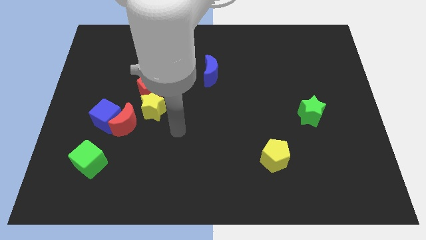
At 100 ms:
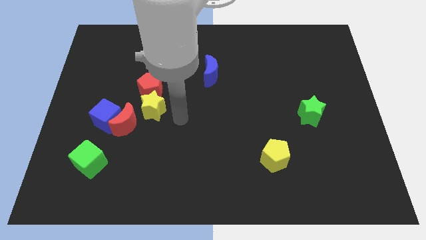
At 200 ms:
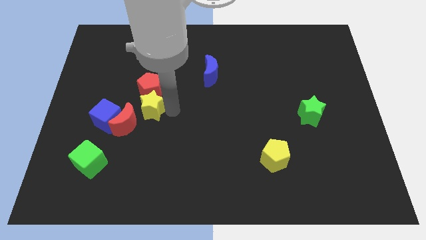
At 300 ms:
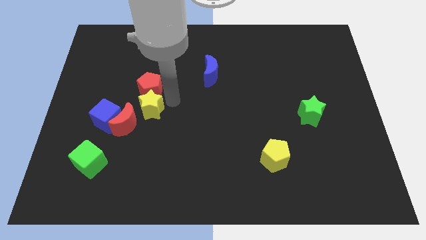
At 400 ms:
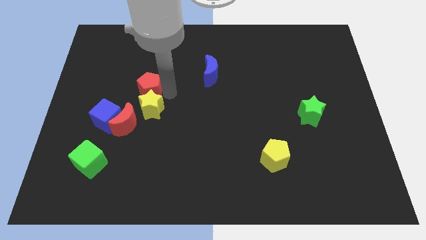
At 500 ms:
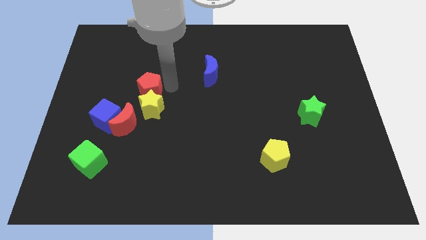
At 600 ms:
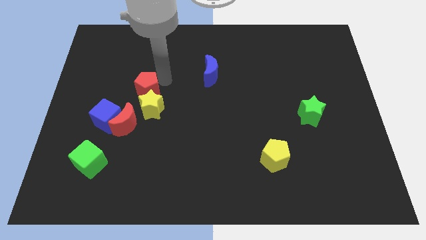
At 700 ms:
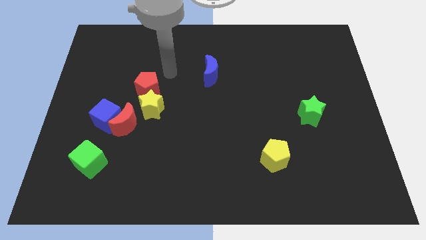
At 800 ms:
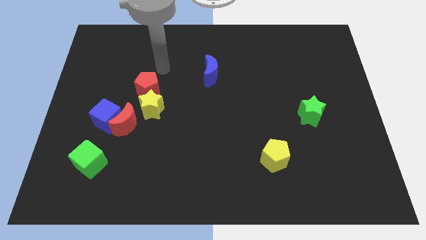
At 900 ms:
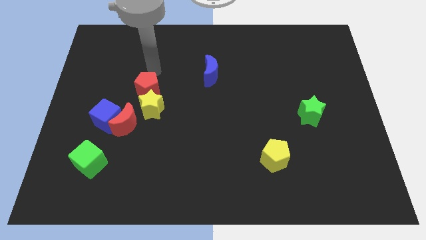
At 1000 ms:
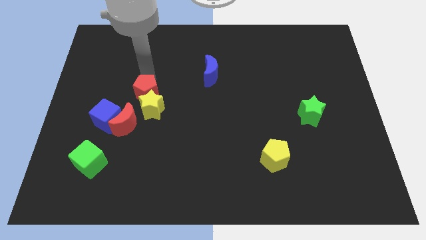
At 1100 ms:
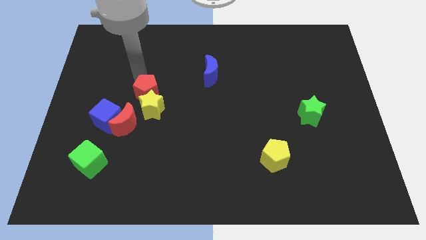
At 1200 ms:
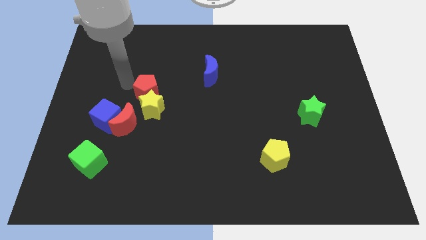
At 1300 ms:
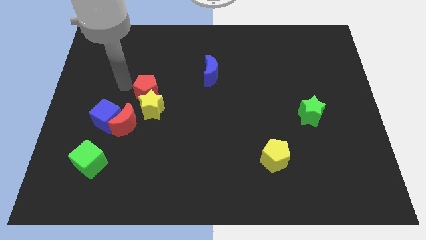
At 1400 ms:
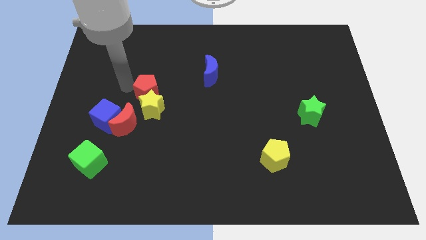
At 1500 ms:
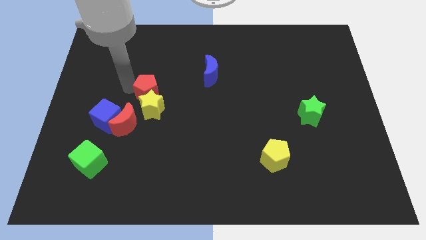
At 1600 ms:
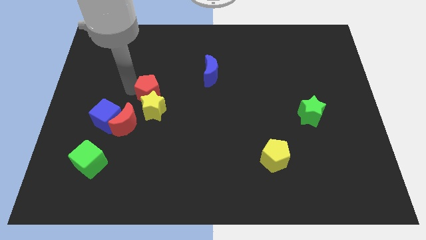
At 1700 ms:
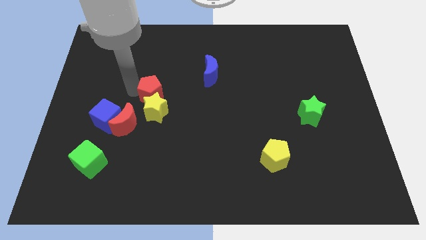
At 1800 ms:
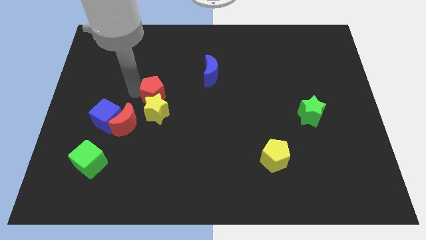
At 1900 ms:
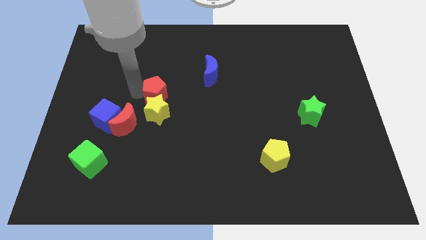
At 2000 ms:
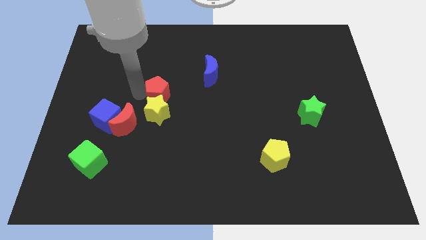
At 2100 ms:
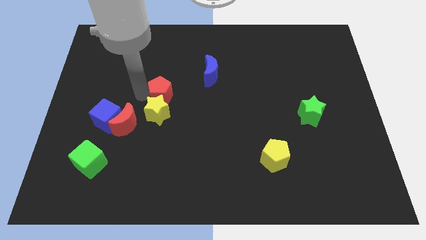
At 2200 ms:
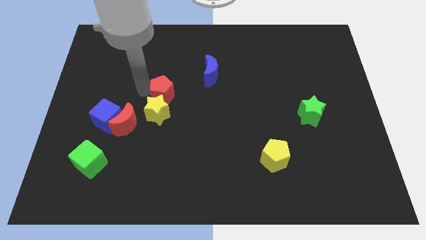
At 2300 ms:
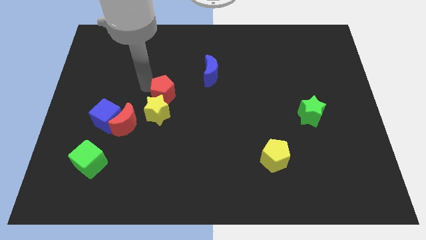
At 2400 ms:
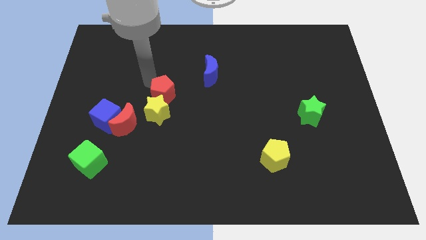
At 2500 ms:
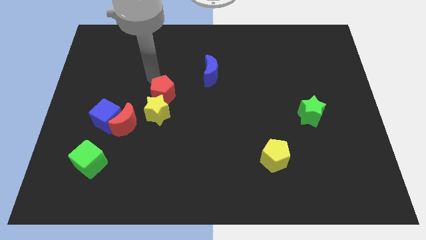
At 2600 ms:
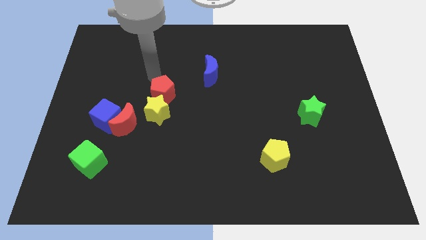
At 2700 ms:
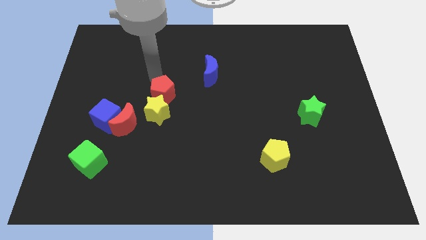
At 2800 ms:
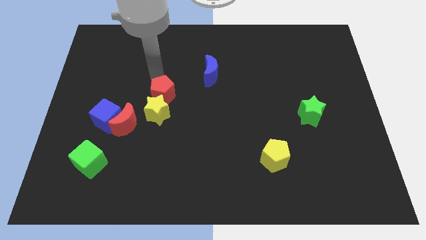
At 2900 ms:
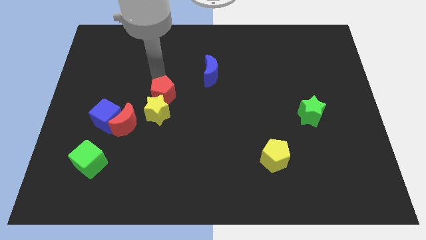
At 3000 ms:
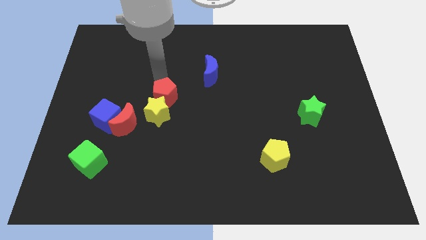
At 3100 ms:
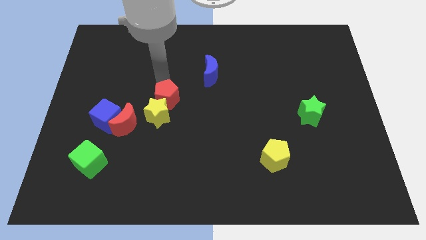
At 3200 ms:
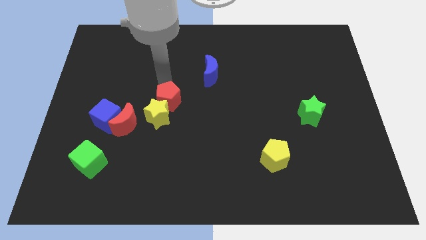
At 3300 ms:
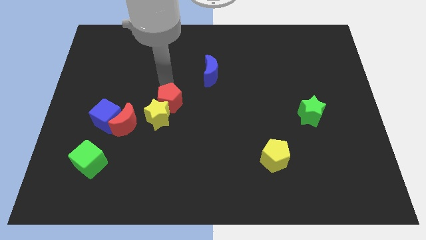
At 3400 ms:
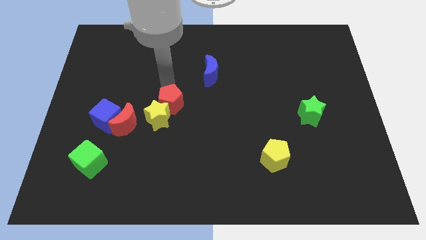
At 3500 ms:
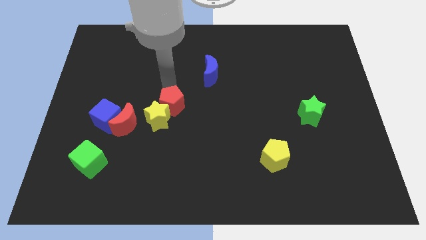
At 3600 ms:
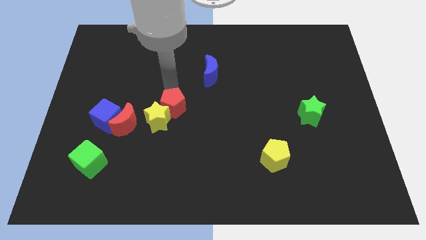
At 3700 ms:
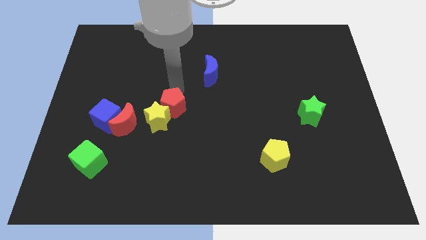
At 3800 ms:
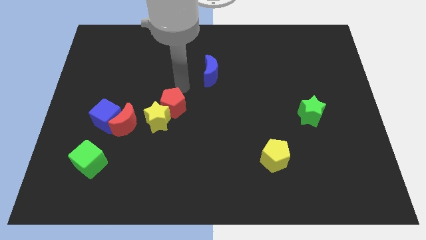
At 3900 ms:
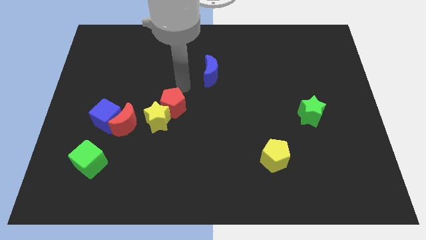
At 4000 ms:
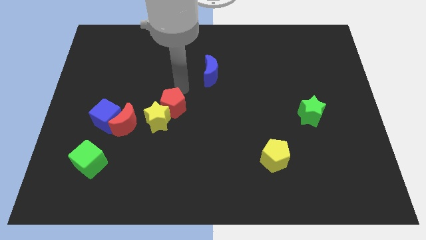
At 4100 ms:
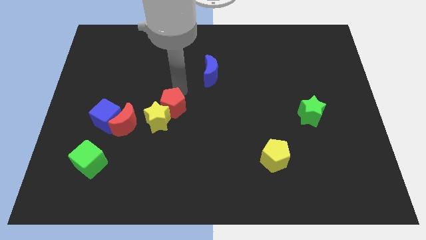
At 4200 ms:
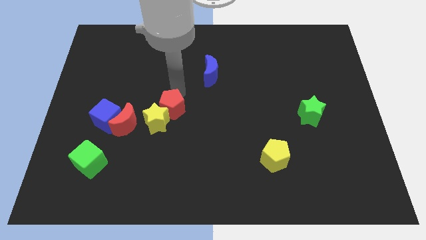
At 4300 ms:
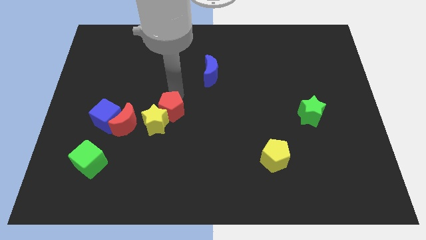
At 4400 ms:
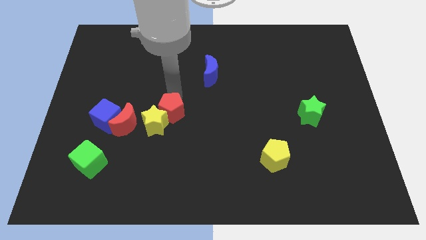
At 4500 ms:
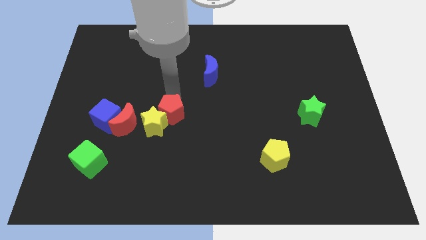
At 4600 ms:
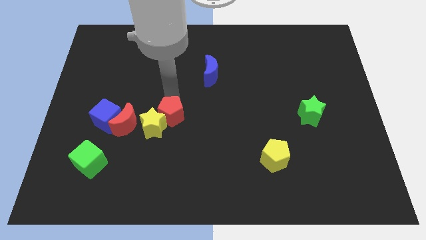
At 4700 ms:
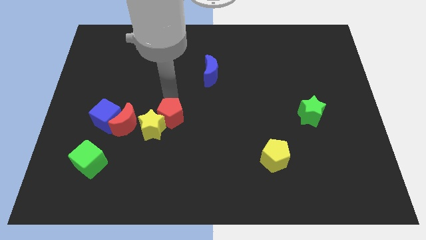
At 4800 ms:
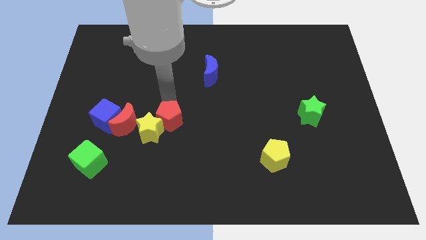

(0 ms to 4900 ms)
slightly move the red pentagon down

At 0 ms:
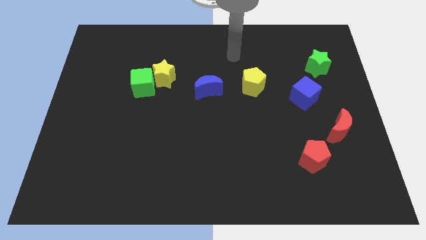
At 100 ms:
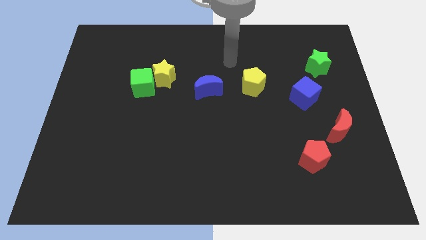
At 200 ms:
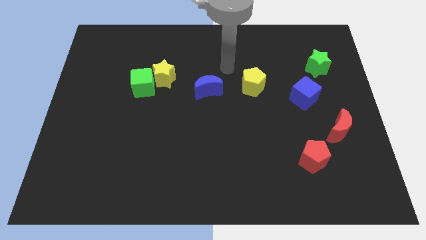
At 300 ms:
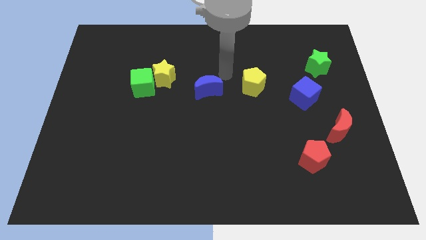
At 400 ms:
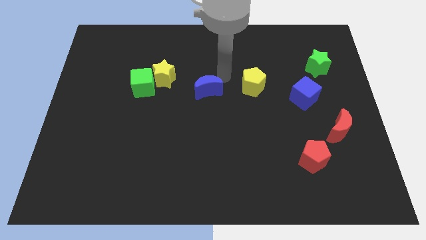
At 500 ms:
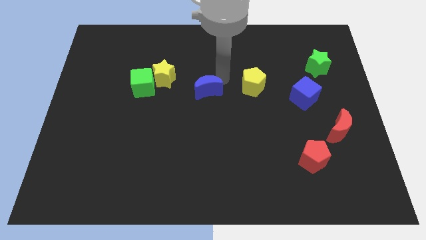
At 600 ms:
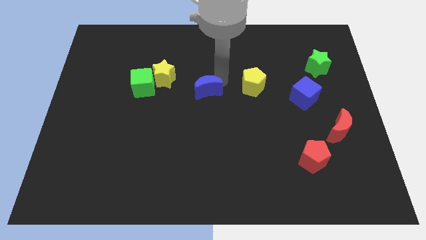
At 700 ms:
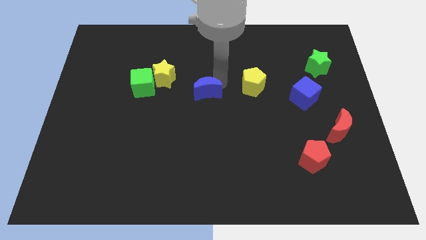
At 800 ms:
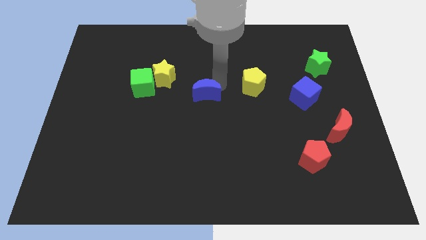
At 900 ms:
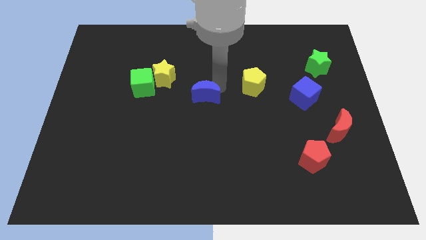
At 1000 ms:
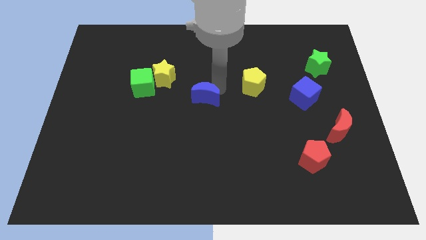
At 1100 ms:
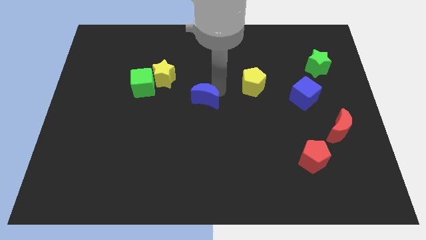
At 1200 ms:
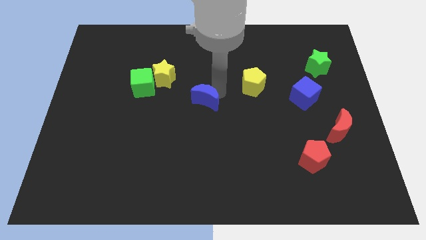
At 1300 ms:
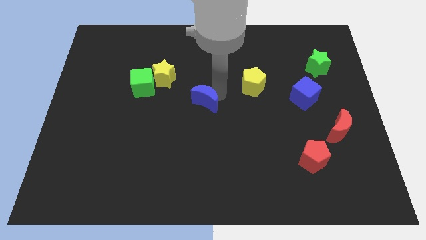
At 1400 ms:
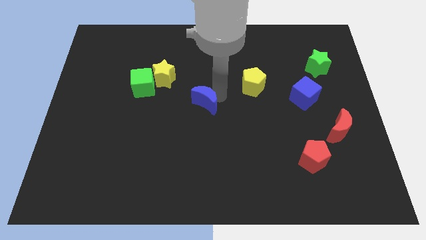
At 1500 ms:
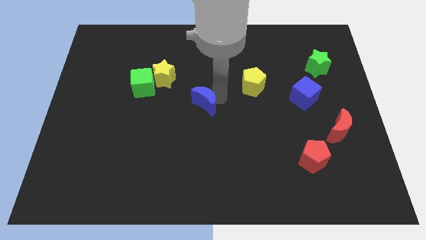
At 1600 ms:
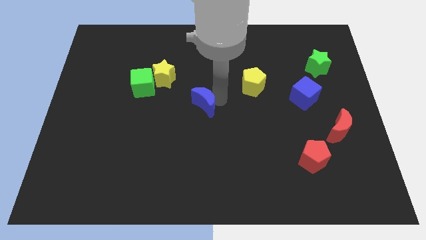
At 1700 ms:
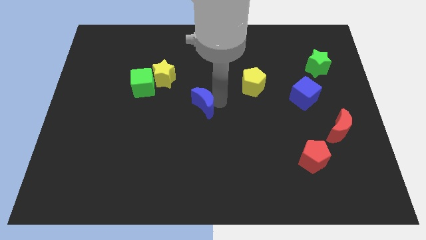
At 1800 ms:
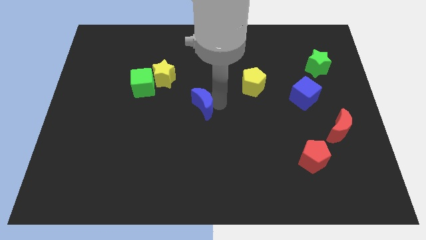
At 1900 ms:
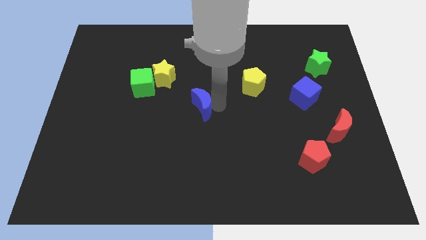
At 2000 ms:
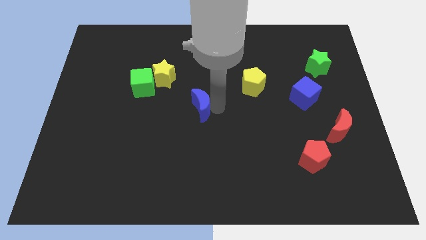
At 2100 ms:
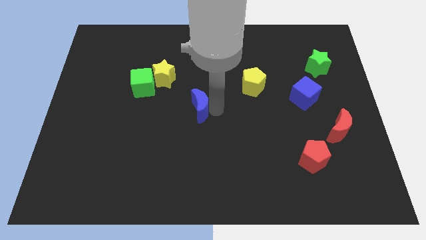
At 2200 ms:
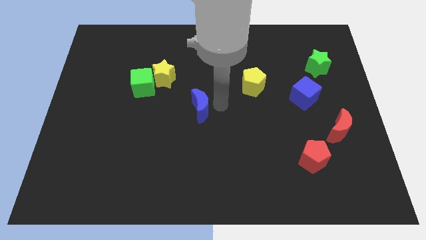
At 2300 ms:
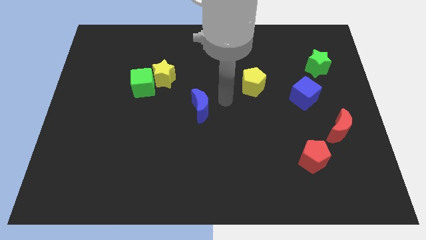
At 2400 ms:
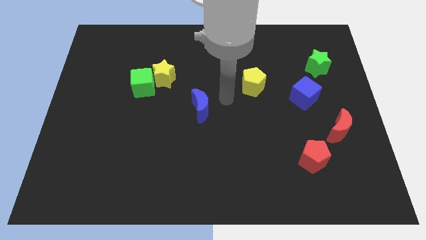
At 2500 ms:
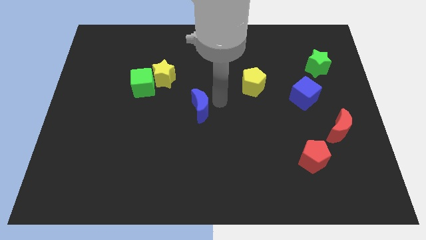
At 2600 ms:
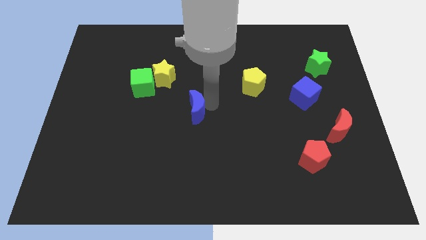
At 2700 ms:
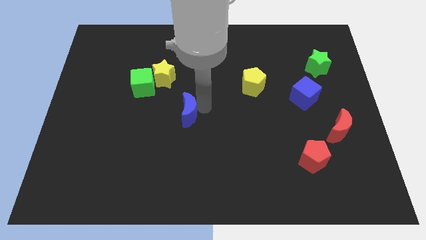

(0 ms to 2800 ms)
slide the blue moon somewhat downwards and left
